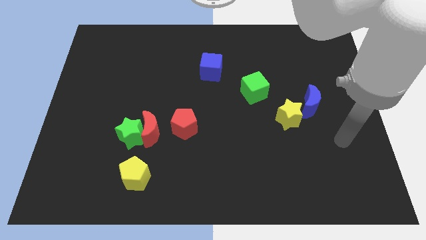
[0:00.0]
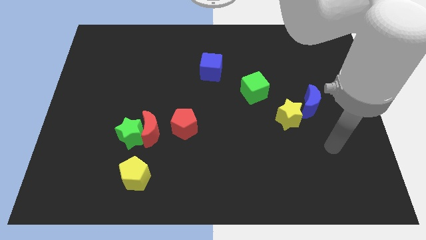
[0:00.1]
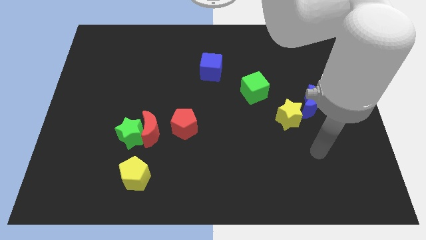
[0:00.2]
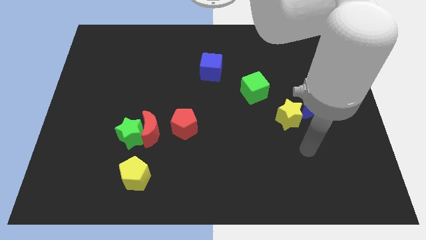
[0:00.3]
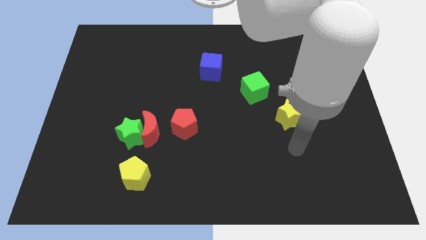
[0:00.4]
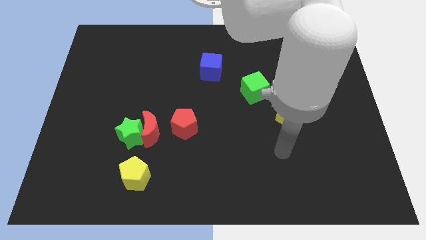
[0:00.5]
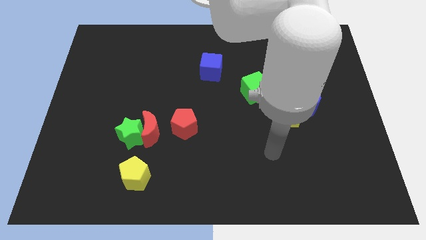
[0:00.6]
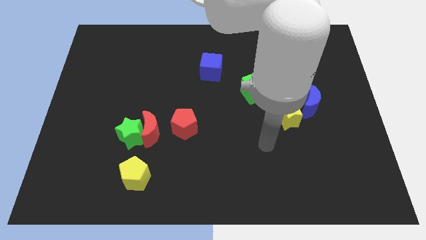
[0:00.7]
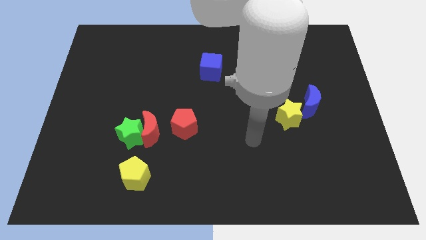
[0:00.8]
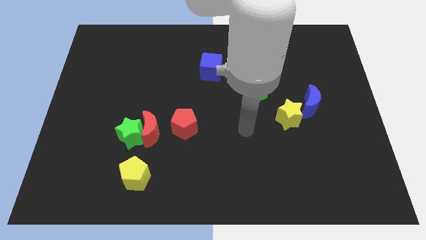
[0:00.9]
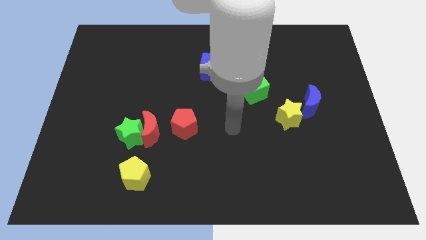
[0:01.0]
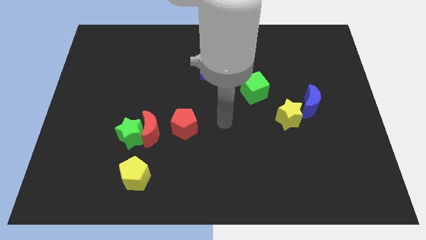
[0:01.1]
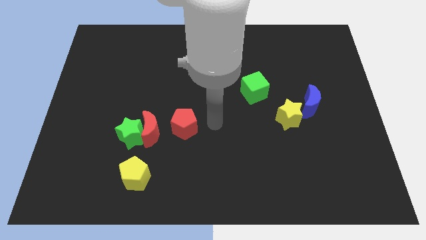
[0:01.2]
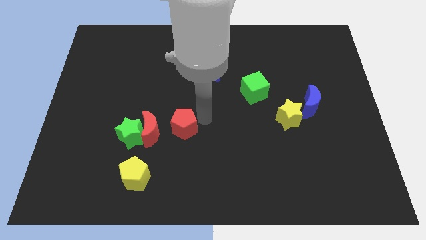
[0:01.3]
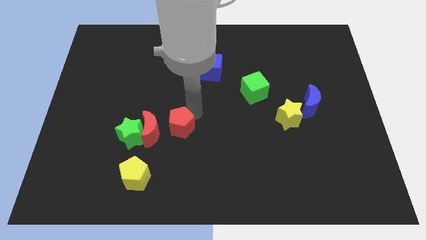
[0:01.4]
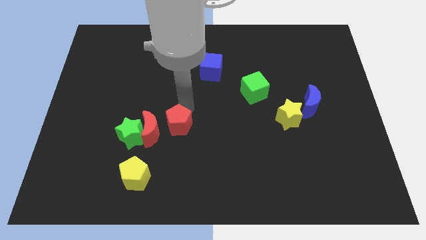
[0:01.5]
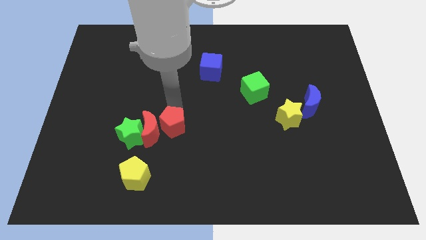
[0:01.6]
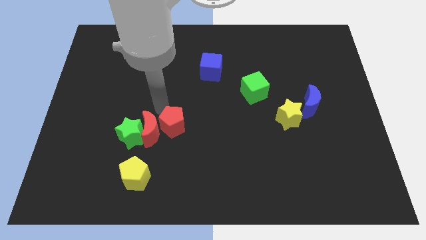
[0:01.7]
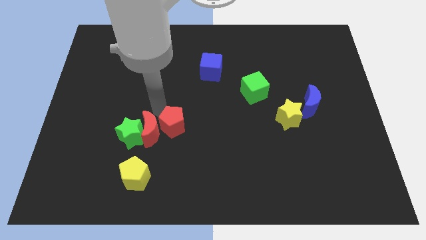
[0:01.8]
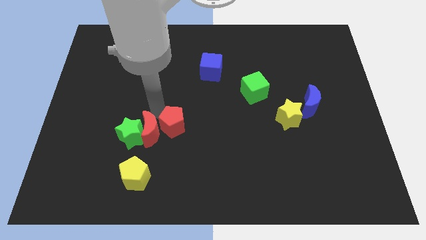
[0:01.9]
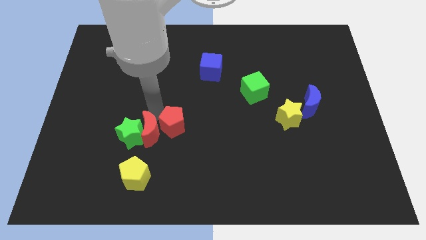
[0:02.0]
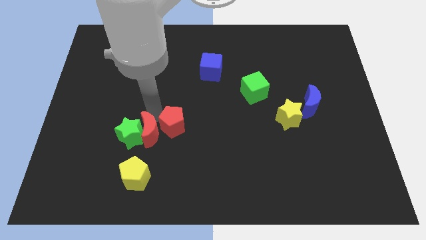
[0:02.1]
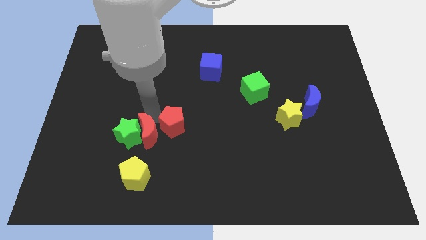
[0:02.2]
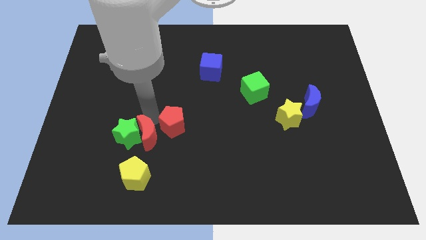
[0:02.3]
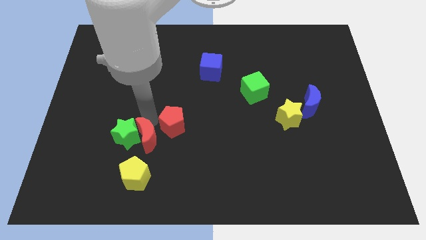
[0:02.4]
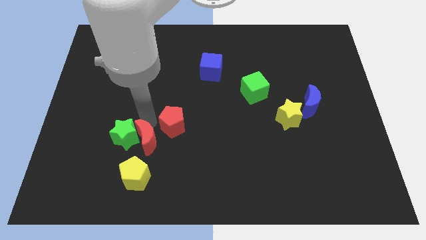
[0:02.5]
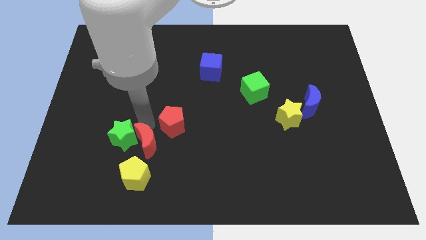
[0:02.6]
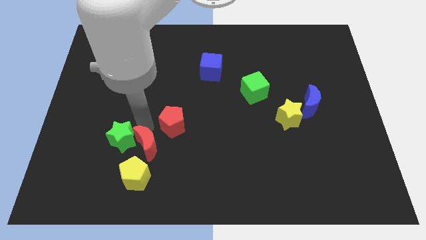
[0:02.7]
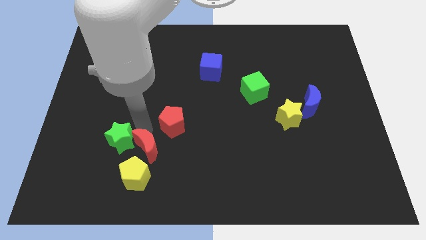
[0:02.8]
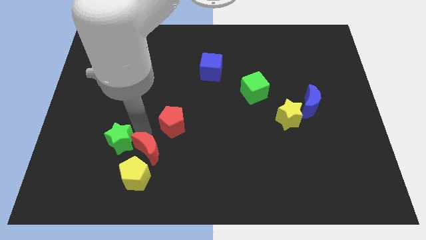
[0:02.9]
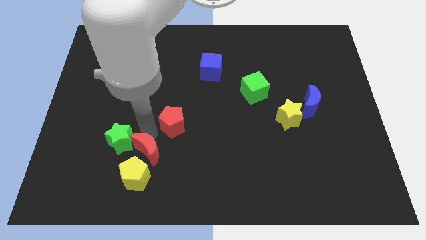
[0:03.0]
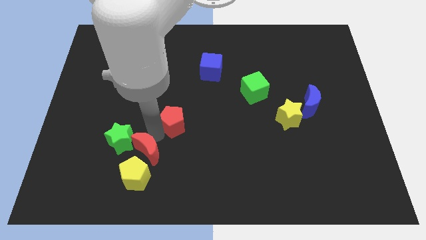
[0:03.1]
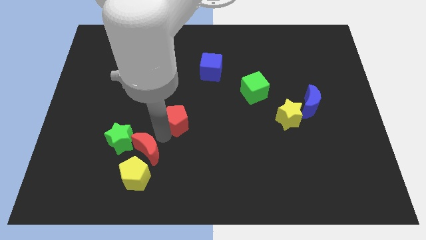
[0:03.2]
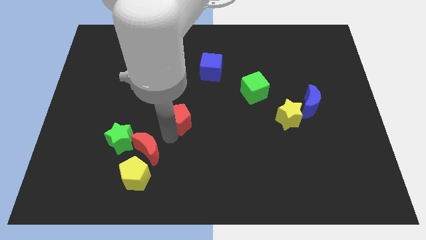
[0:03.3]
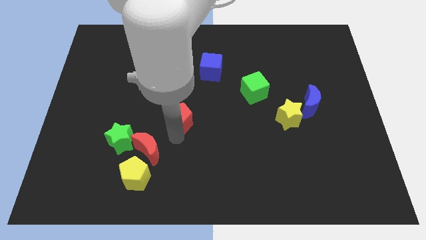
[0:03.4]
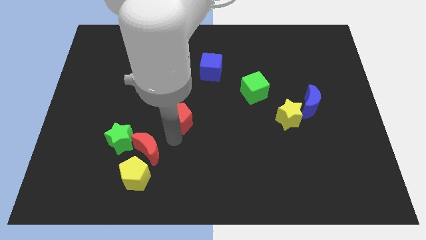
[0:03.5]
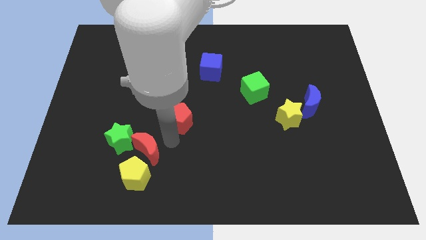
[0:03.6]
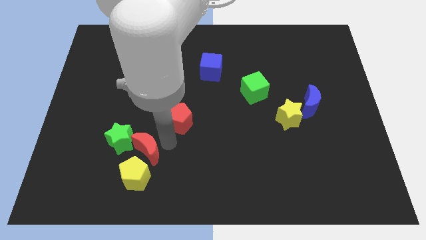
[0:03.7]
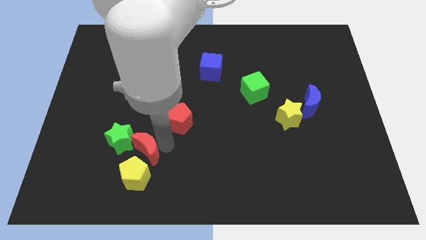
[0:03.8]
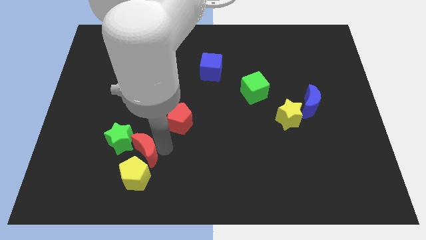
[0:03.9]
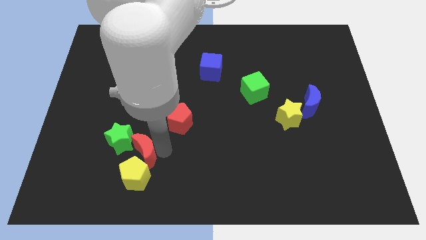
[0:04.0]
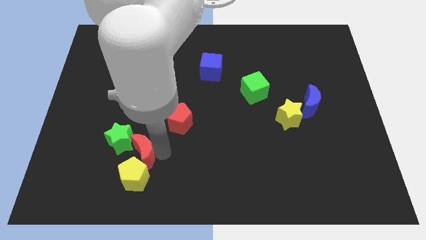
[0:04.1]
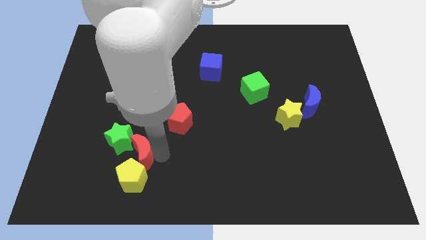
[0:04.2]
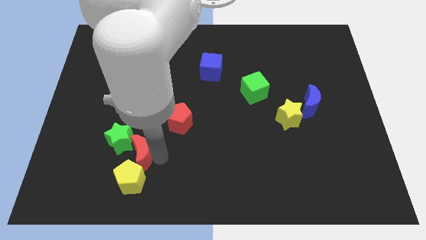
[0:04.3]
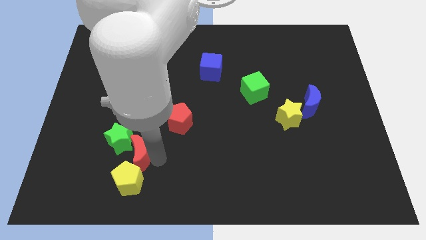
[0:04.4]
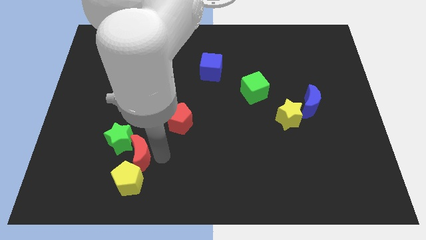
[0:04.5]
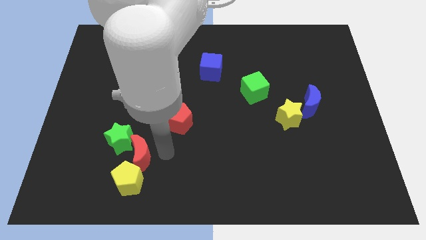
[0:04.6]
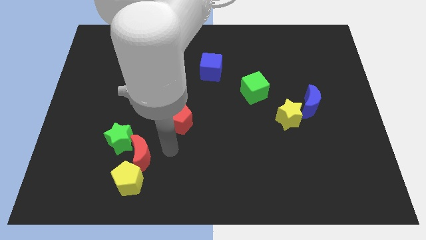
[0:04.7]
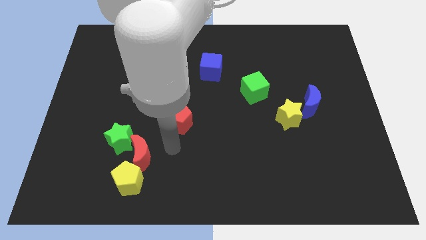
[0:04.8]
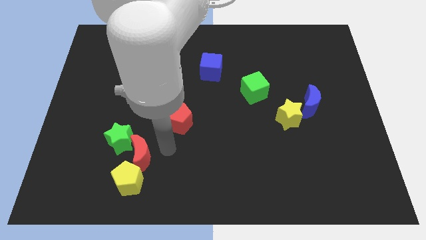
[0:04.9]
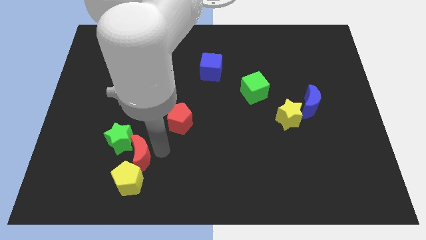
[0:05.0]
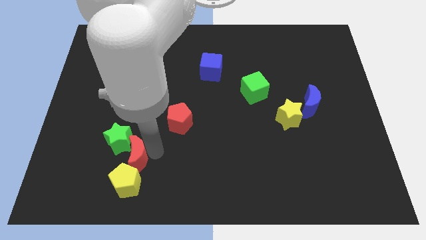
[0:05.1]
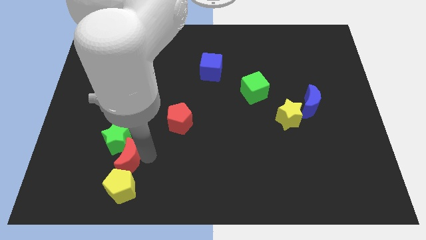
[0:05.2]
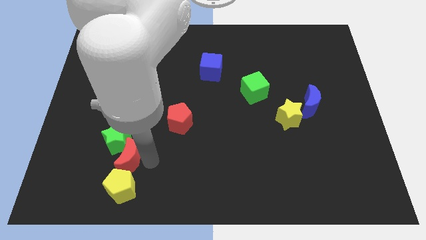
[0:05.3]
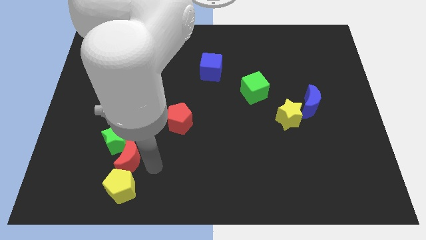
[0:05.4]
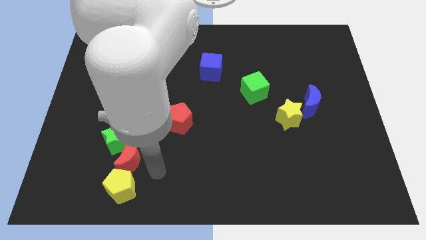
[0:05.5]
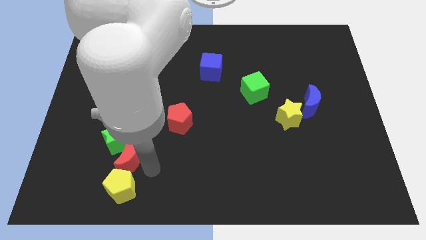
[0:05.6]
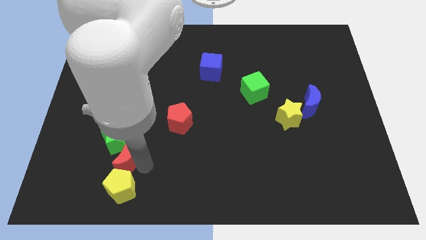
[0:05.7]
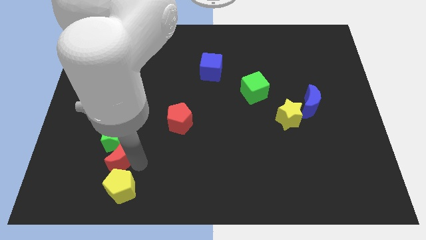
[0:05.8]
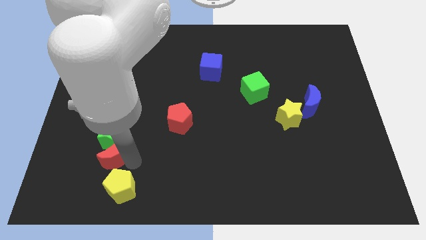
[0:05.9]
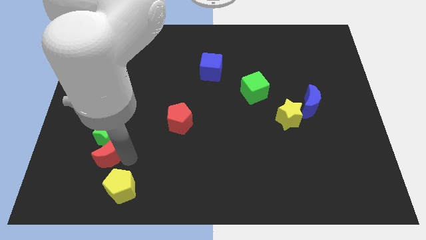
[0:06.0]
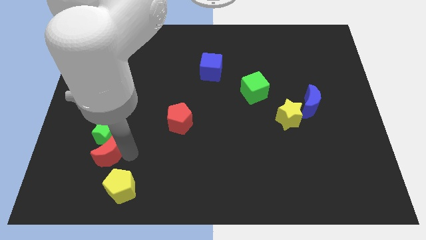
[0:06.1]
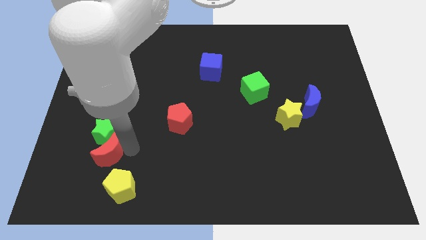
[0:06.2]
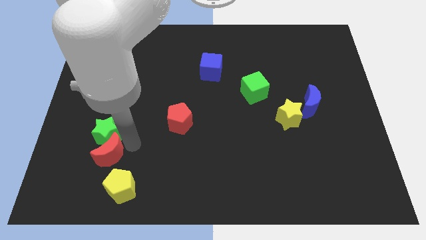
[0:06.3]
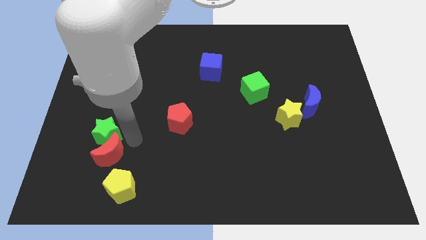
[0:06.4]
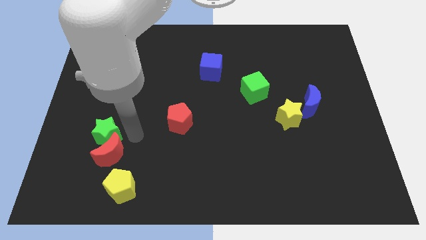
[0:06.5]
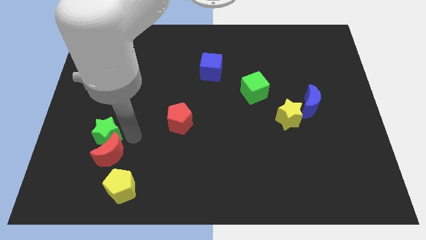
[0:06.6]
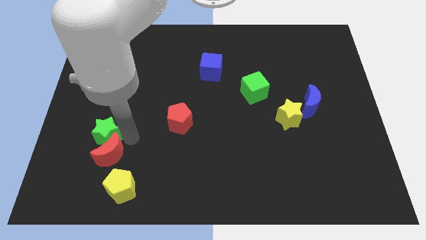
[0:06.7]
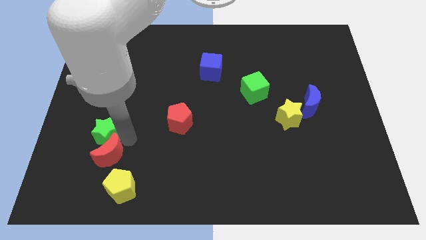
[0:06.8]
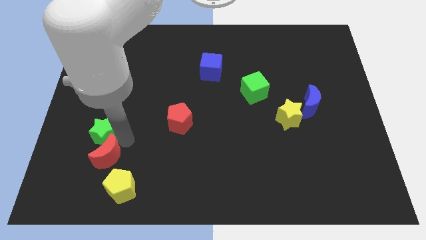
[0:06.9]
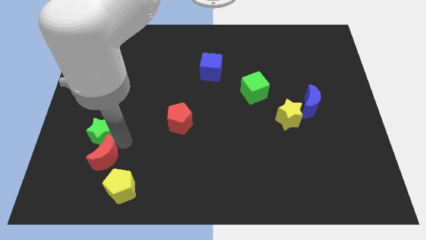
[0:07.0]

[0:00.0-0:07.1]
separate the red moon from the green star and red pentagon

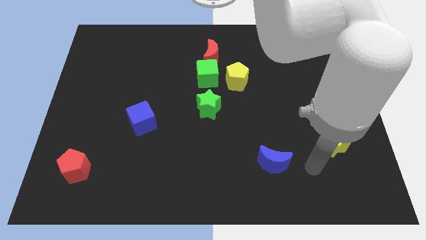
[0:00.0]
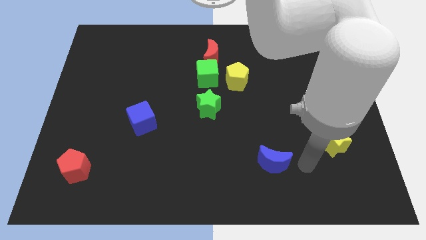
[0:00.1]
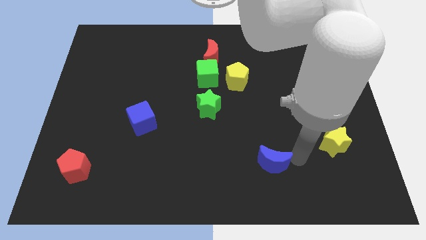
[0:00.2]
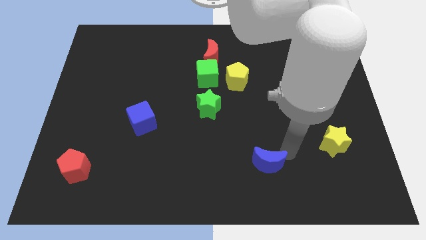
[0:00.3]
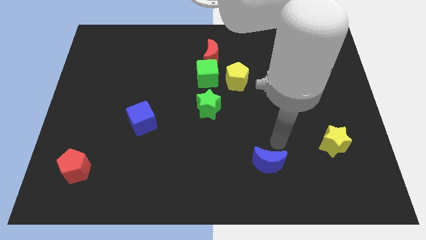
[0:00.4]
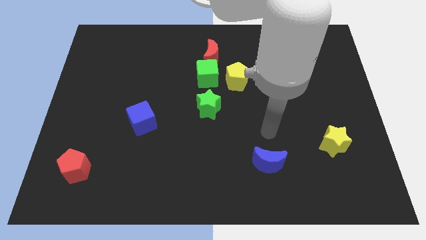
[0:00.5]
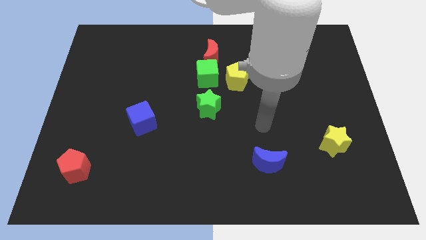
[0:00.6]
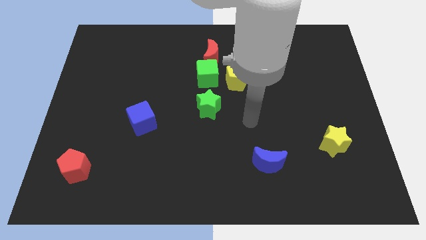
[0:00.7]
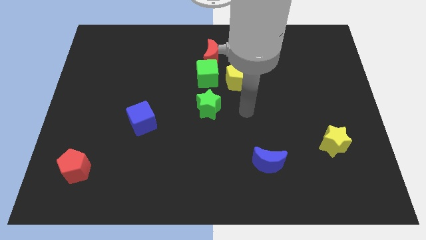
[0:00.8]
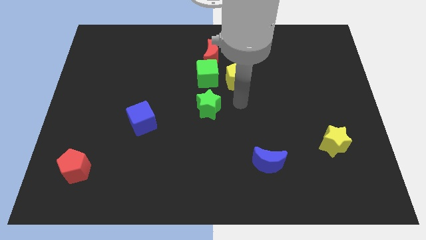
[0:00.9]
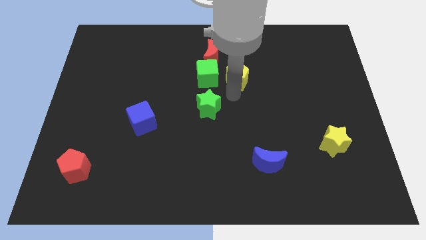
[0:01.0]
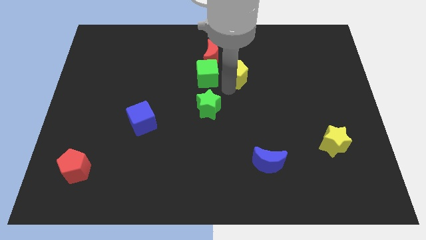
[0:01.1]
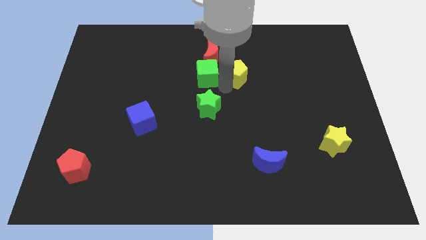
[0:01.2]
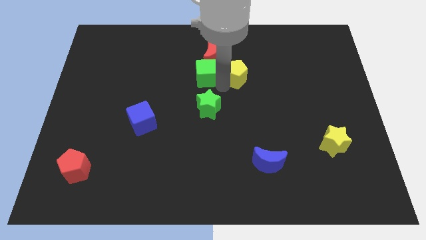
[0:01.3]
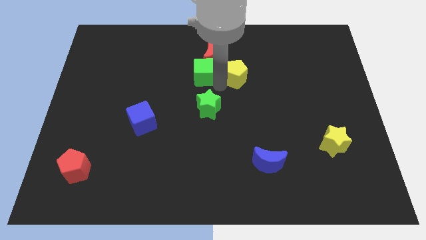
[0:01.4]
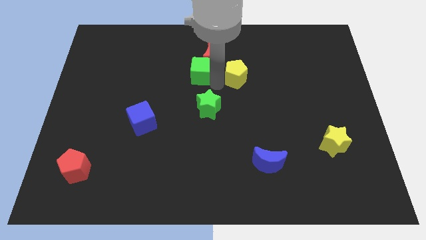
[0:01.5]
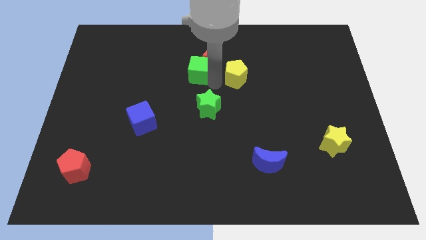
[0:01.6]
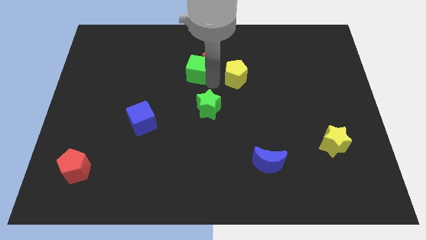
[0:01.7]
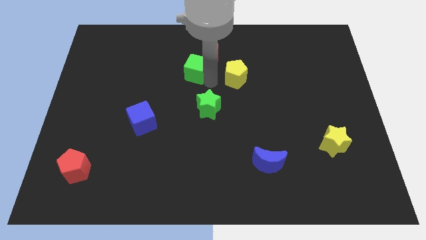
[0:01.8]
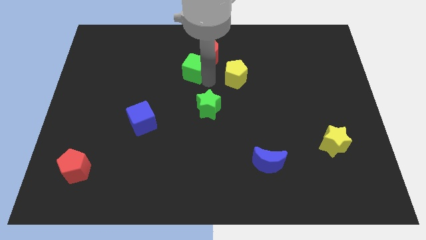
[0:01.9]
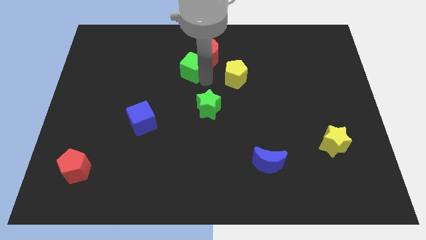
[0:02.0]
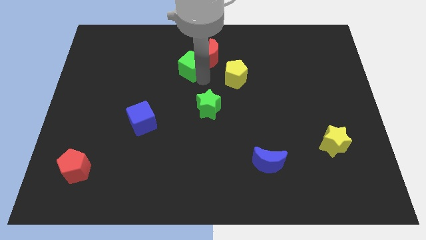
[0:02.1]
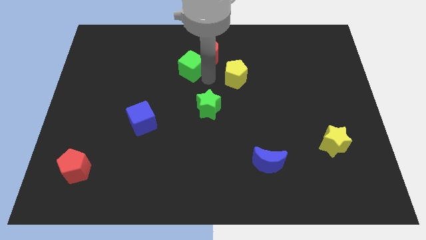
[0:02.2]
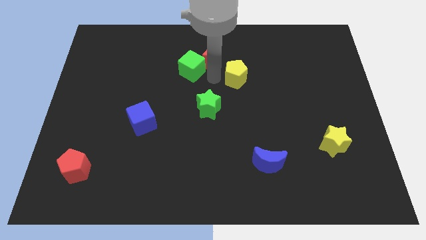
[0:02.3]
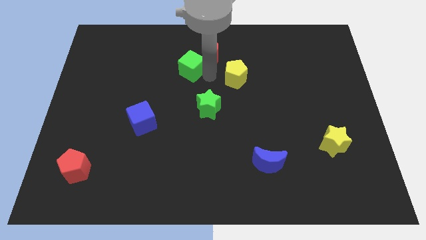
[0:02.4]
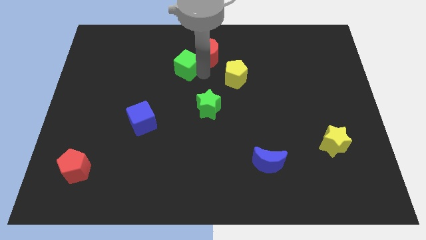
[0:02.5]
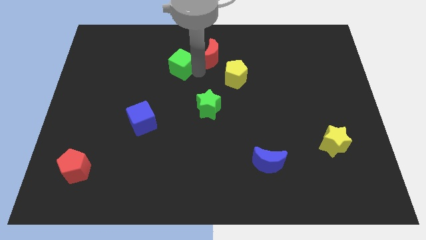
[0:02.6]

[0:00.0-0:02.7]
separate the green cube from the group
